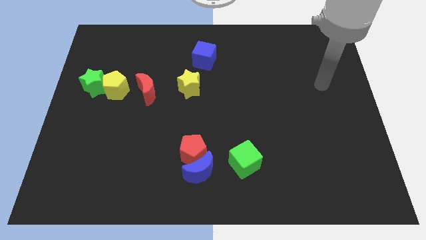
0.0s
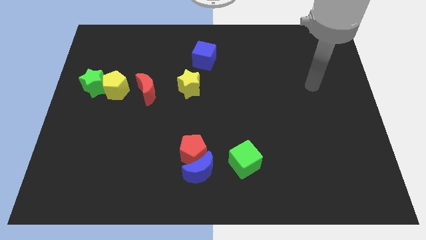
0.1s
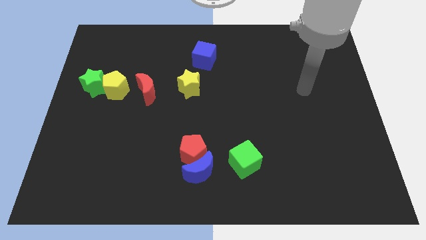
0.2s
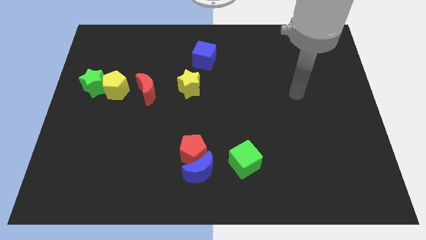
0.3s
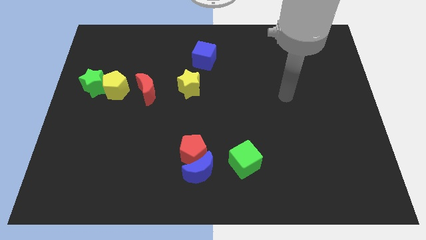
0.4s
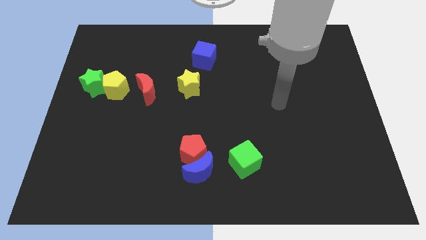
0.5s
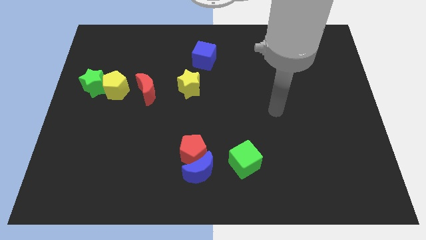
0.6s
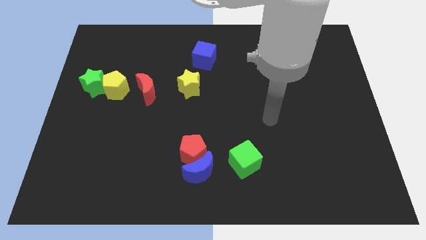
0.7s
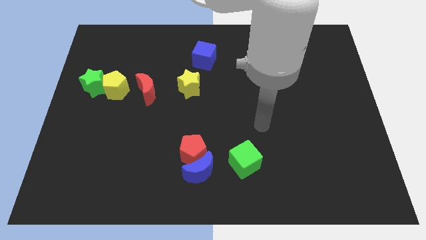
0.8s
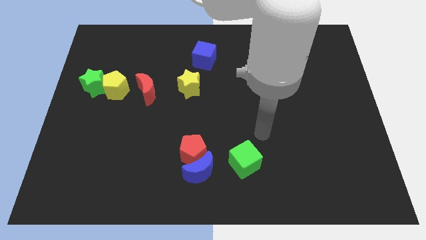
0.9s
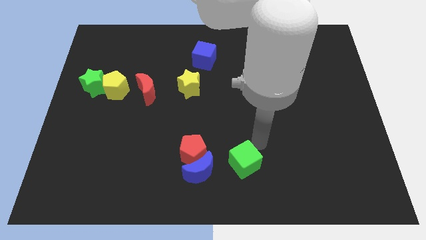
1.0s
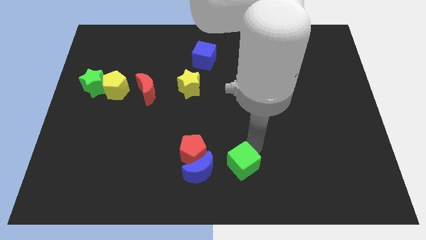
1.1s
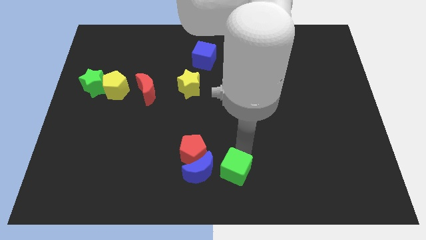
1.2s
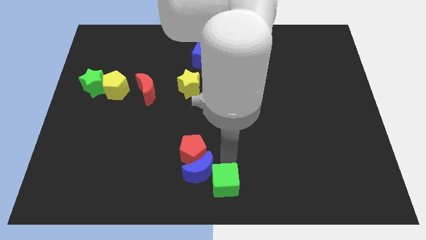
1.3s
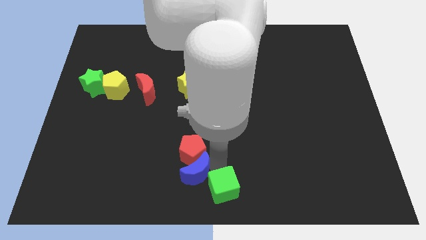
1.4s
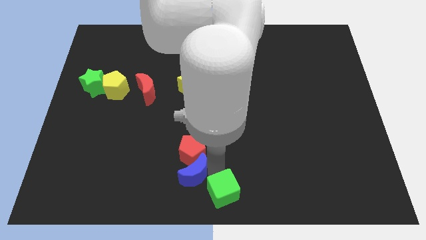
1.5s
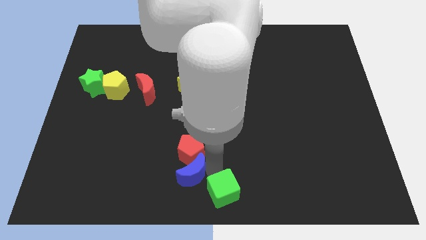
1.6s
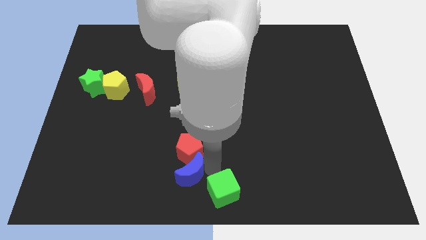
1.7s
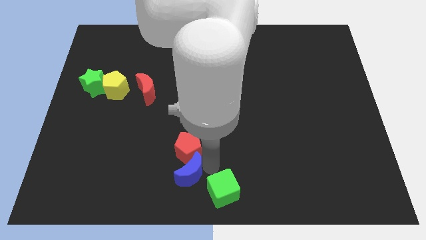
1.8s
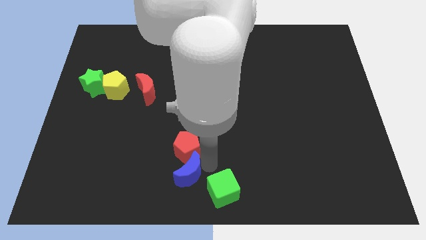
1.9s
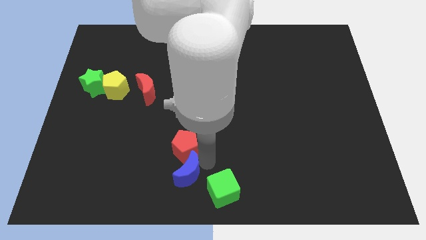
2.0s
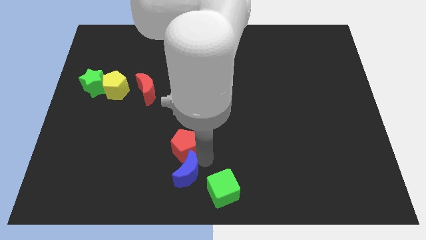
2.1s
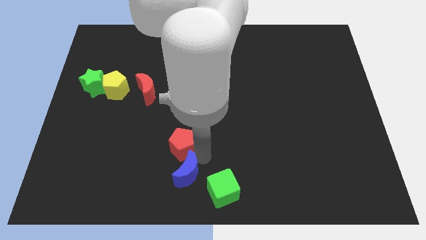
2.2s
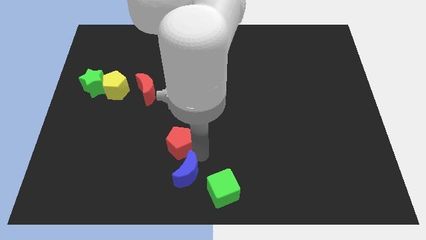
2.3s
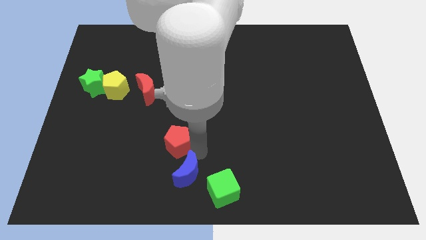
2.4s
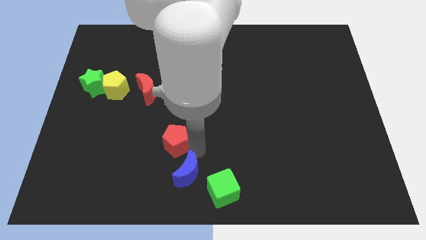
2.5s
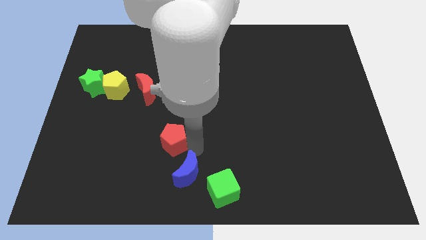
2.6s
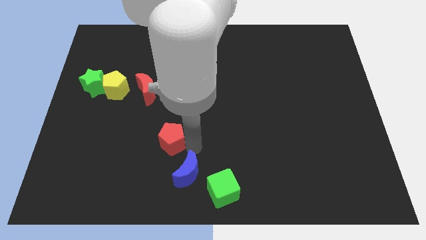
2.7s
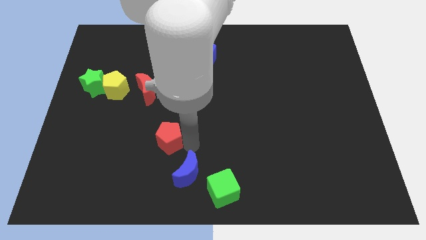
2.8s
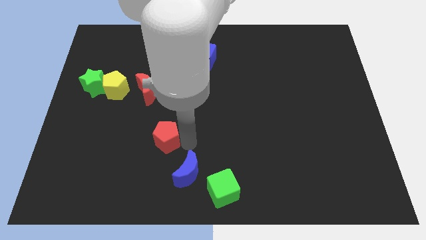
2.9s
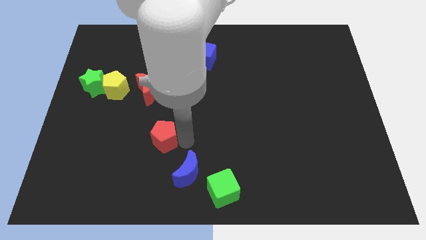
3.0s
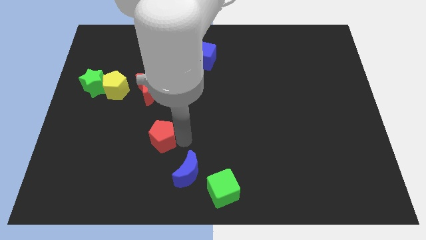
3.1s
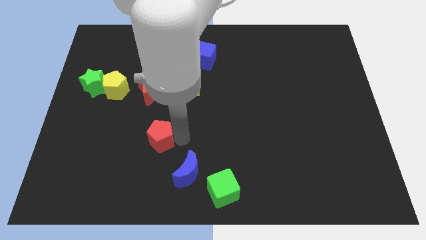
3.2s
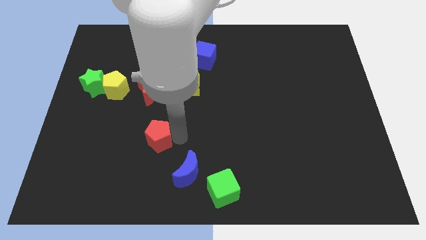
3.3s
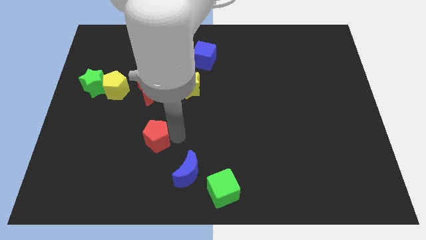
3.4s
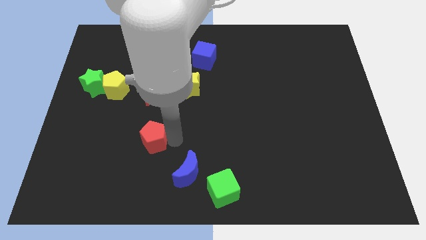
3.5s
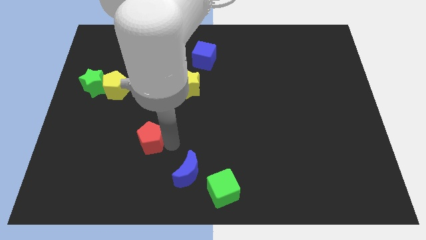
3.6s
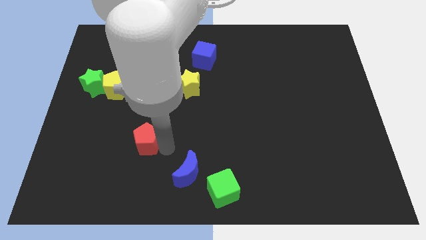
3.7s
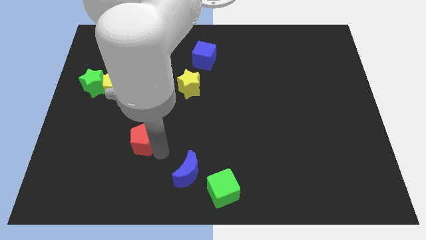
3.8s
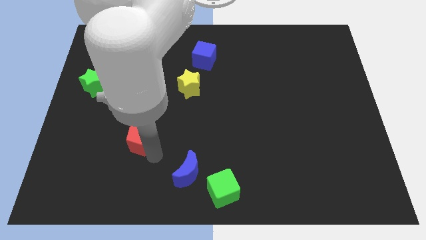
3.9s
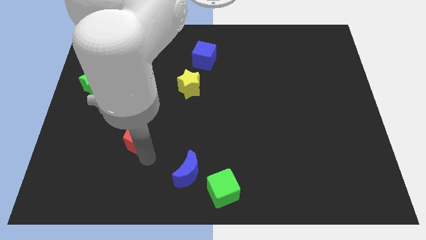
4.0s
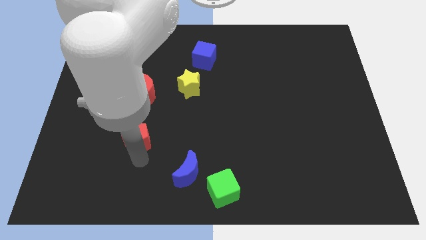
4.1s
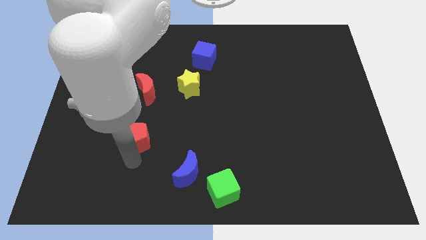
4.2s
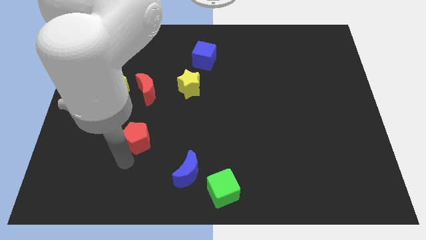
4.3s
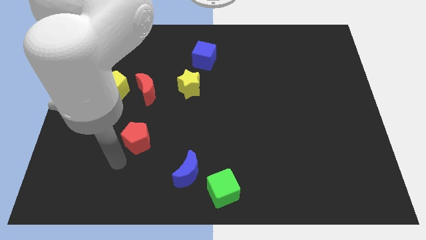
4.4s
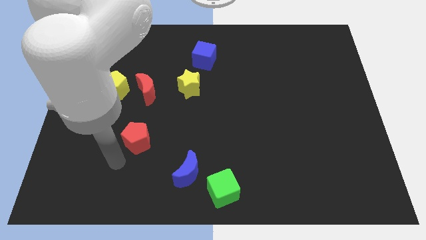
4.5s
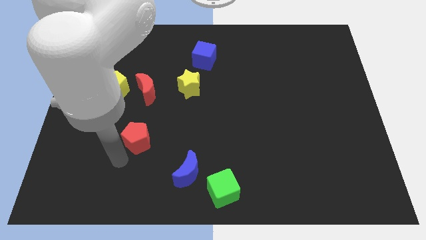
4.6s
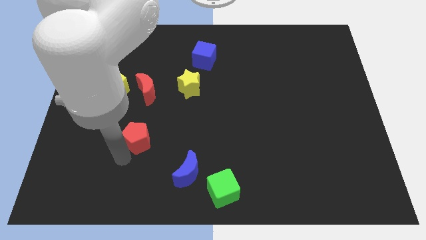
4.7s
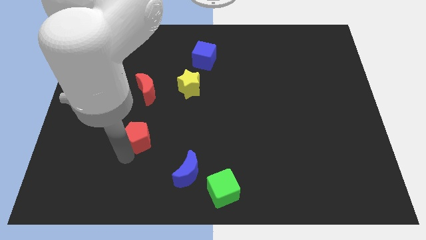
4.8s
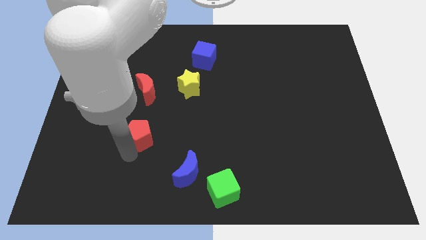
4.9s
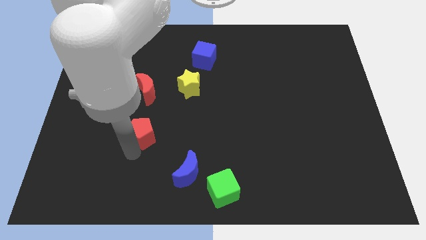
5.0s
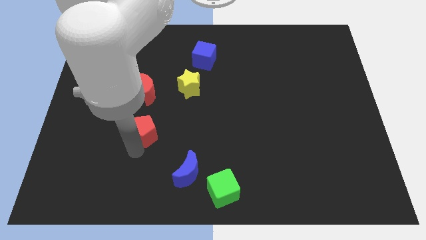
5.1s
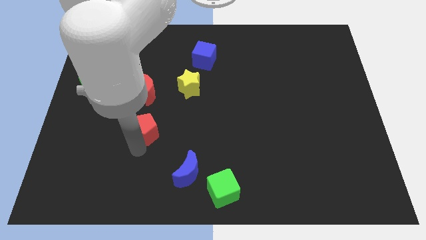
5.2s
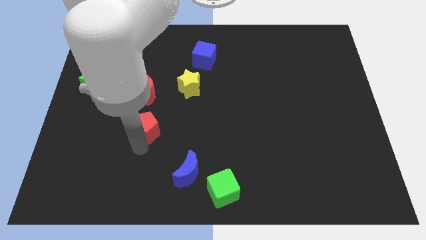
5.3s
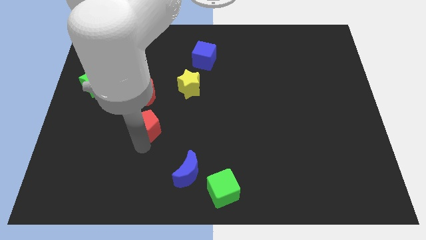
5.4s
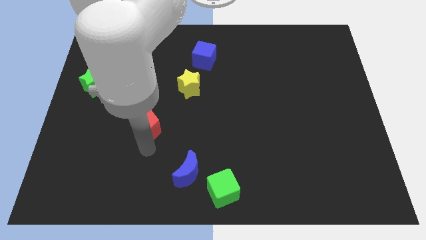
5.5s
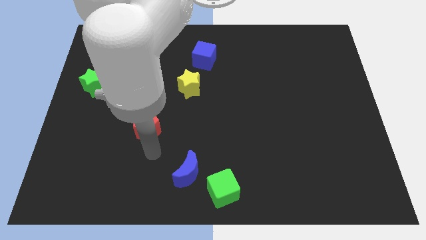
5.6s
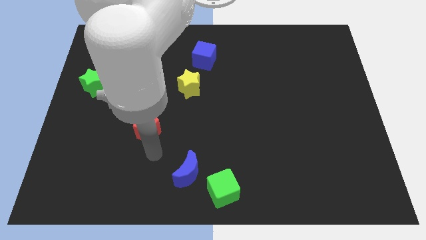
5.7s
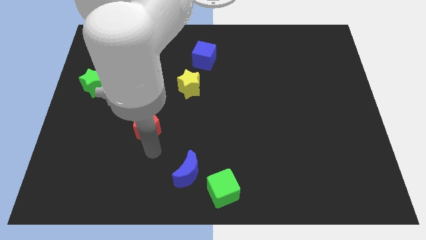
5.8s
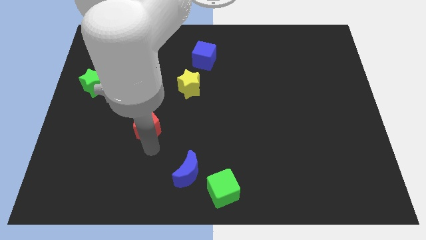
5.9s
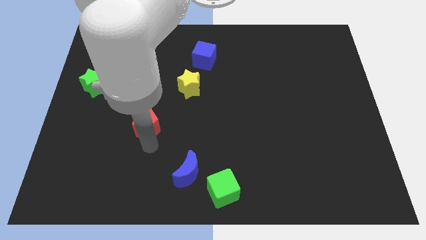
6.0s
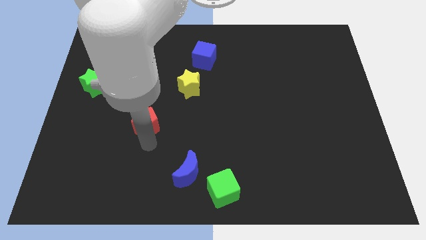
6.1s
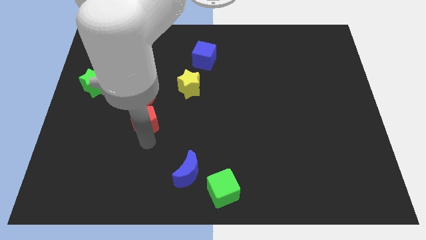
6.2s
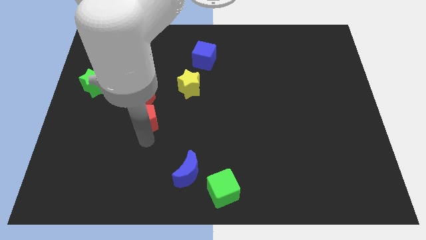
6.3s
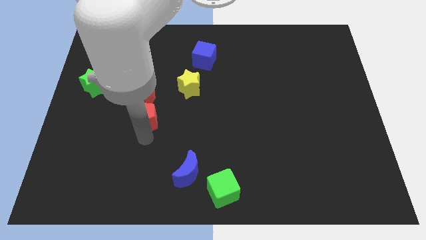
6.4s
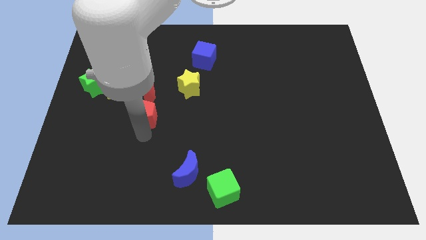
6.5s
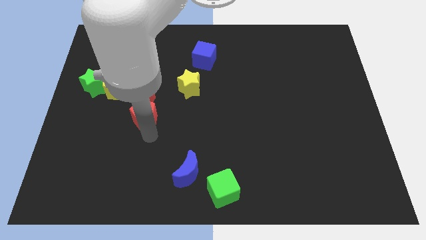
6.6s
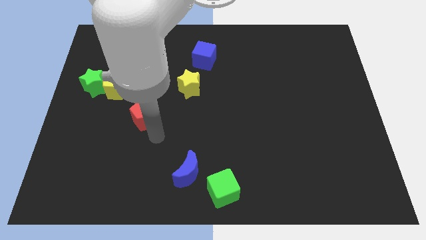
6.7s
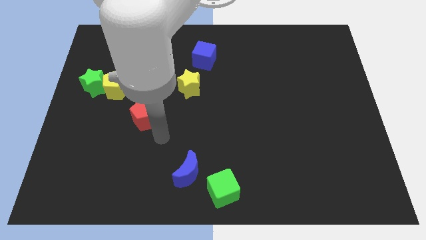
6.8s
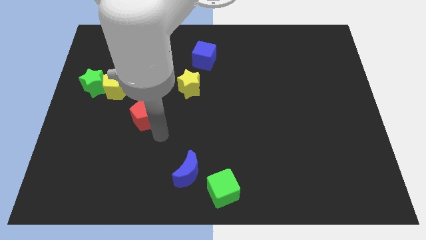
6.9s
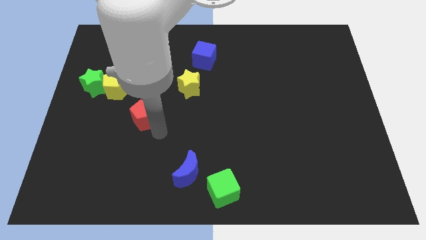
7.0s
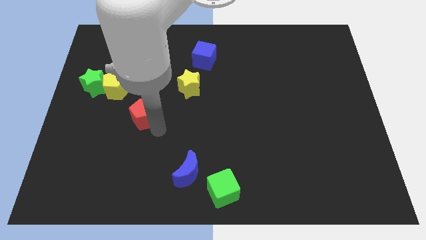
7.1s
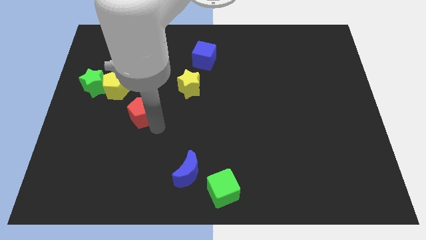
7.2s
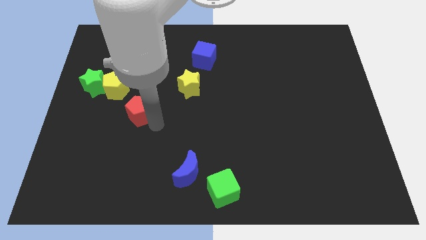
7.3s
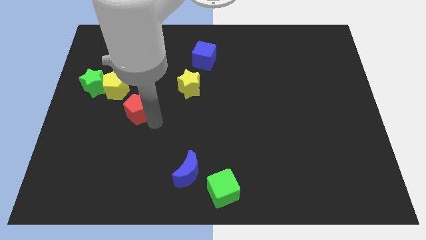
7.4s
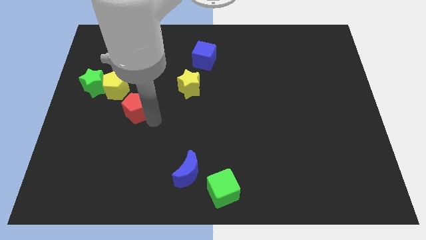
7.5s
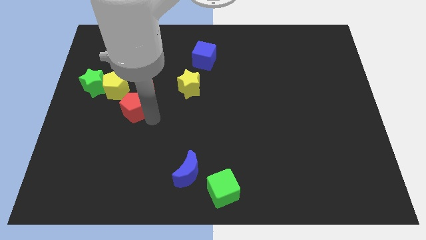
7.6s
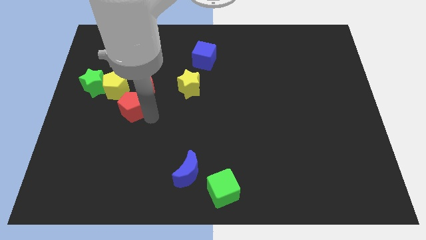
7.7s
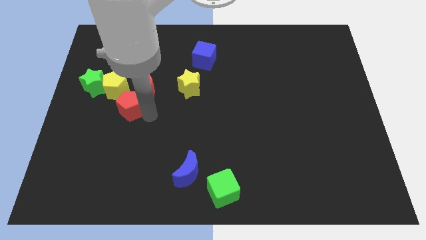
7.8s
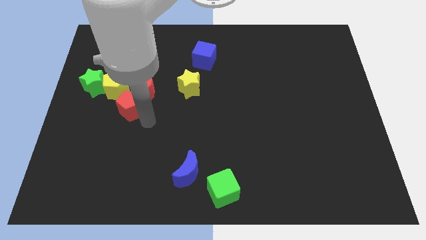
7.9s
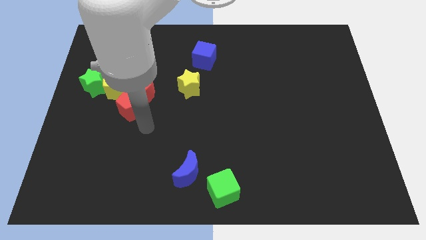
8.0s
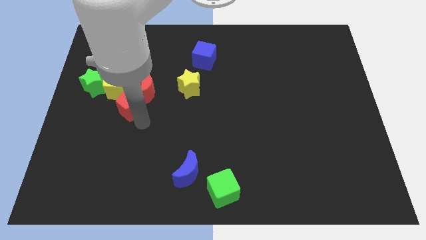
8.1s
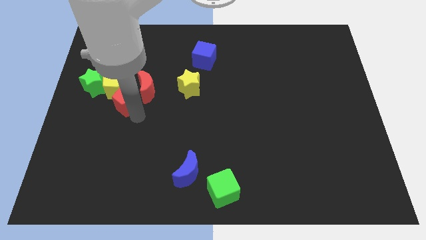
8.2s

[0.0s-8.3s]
move the red pentagon towards the yellow pentagon

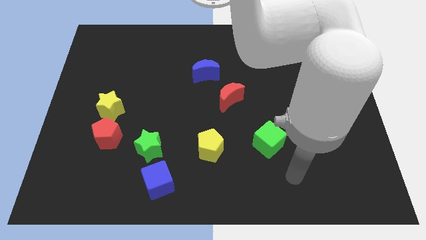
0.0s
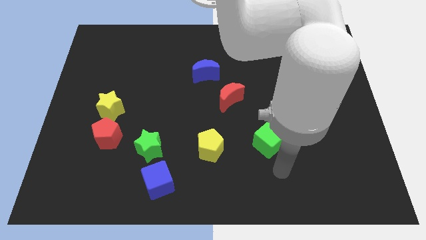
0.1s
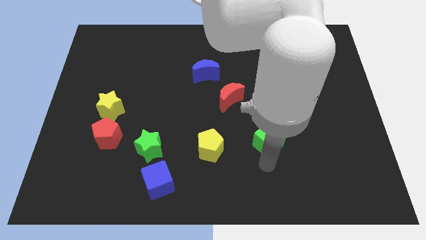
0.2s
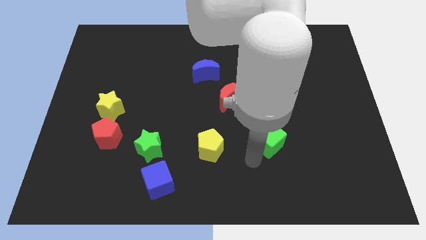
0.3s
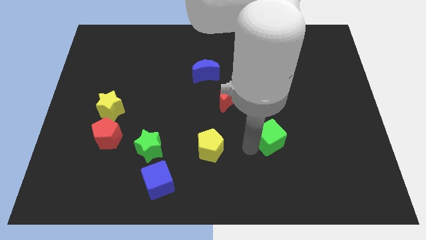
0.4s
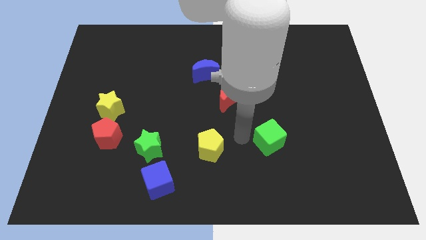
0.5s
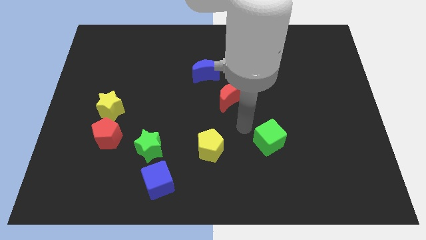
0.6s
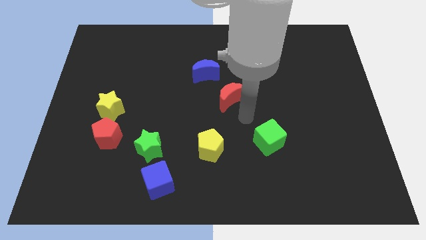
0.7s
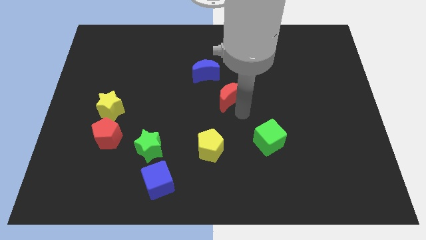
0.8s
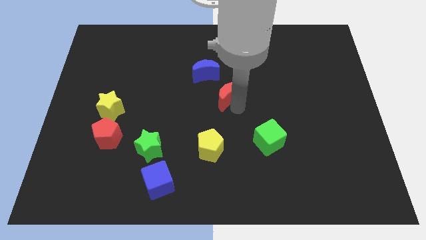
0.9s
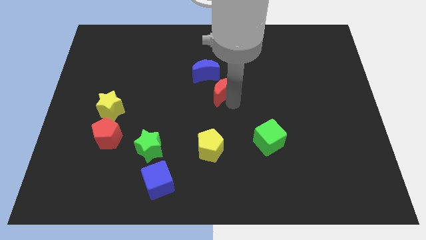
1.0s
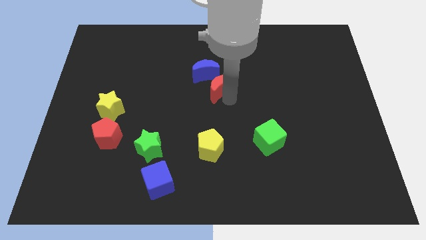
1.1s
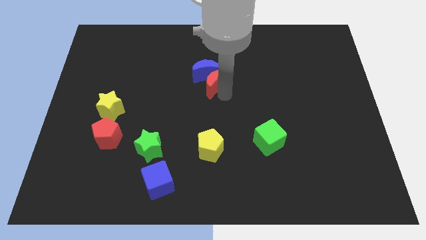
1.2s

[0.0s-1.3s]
push the red moon towards the blue moon
